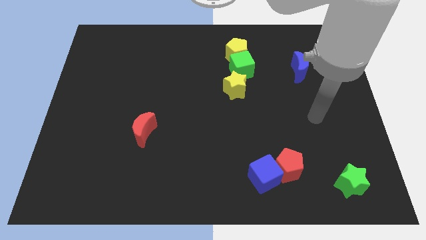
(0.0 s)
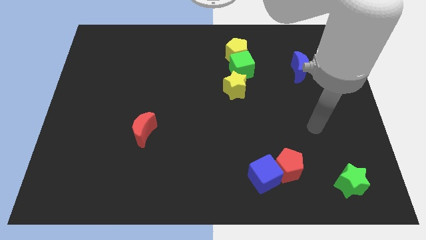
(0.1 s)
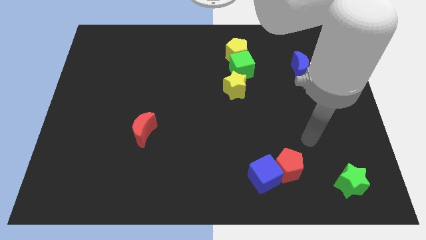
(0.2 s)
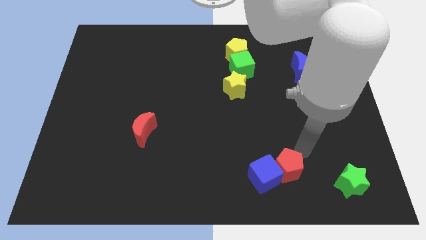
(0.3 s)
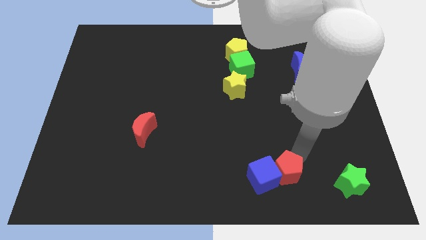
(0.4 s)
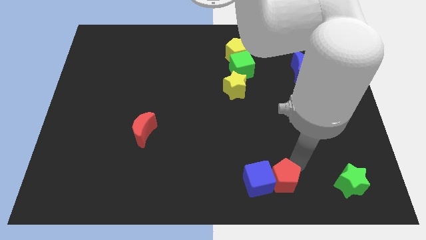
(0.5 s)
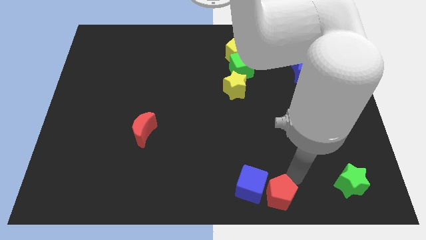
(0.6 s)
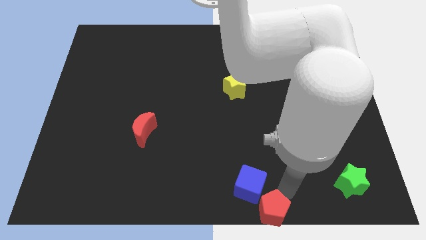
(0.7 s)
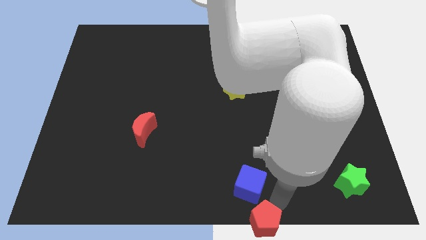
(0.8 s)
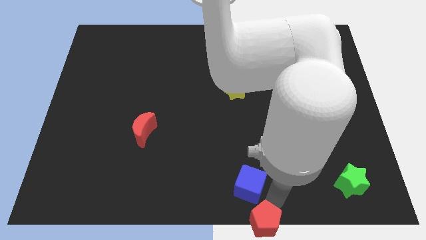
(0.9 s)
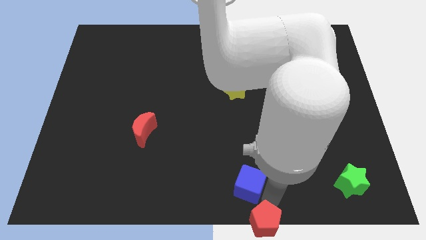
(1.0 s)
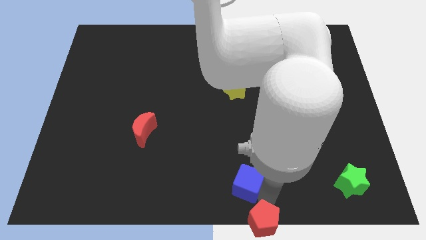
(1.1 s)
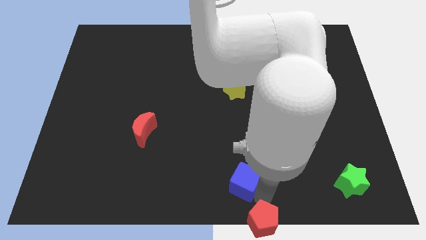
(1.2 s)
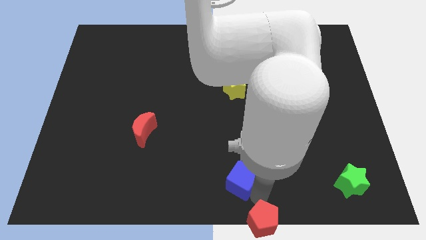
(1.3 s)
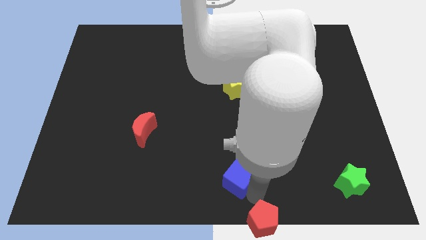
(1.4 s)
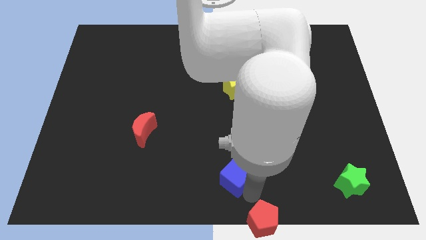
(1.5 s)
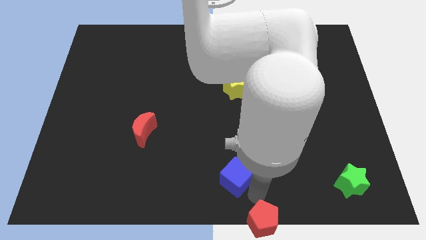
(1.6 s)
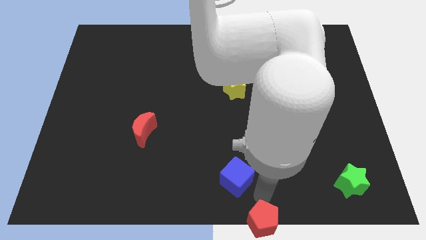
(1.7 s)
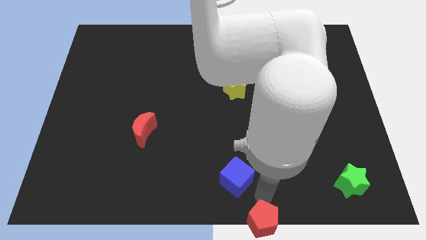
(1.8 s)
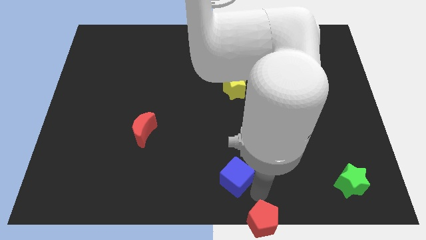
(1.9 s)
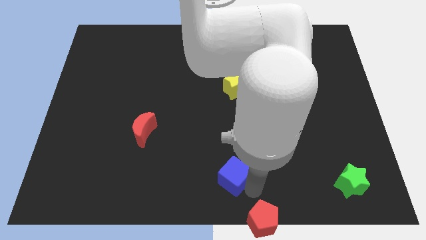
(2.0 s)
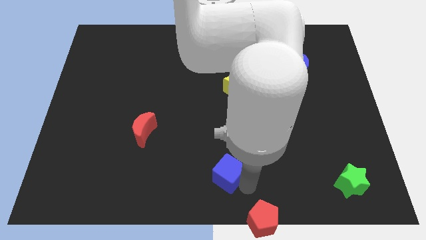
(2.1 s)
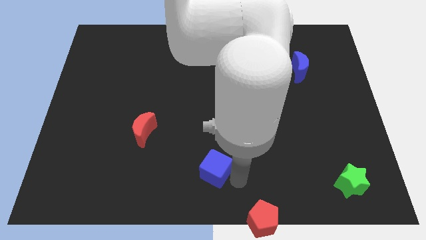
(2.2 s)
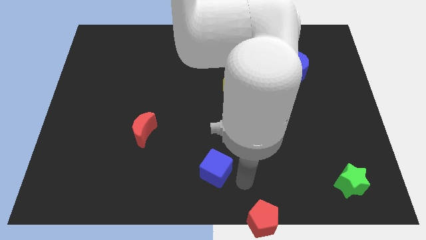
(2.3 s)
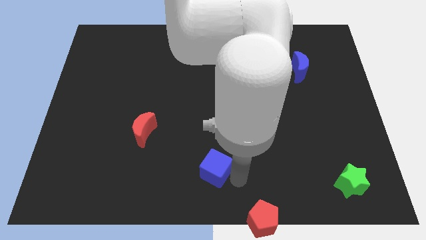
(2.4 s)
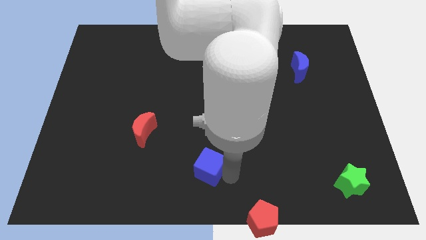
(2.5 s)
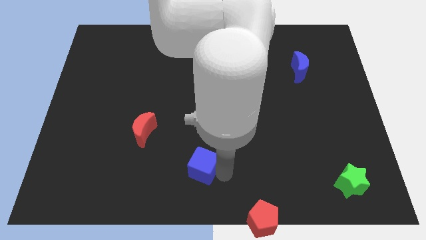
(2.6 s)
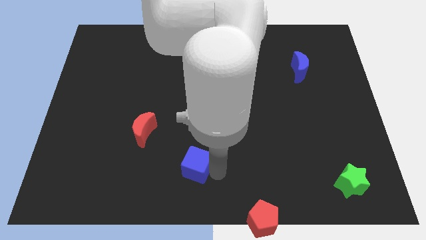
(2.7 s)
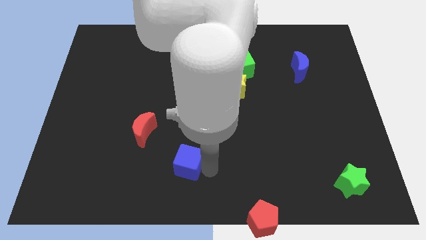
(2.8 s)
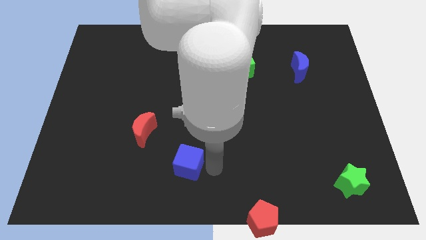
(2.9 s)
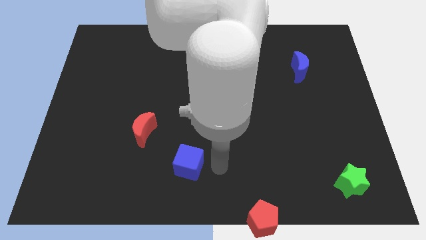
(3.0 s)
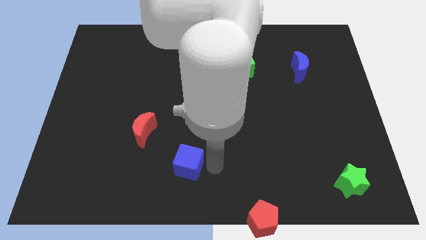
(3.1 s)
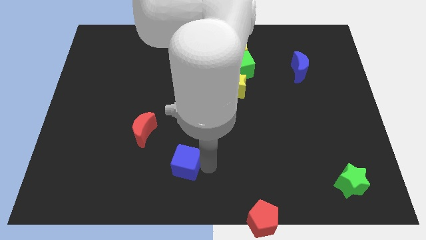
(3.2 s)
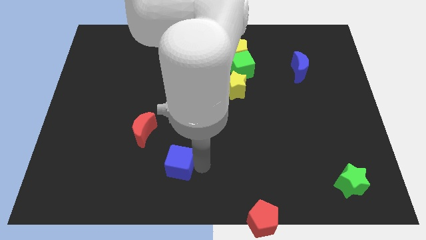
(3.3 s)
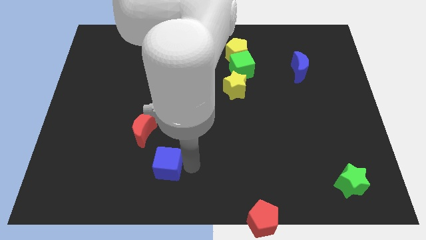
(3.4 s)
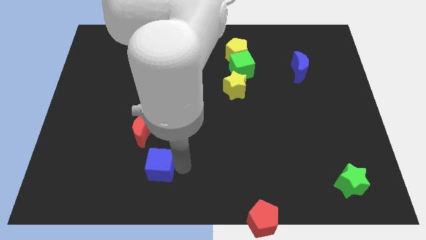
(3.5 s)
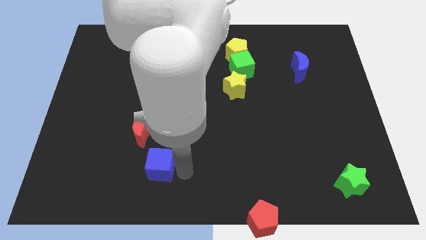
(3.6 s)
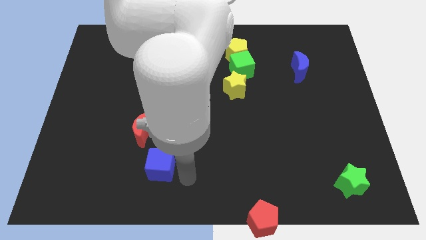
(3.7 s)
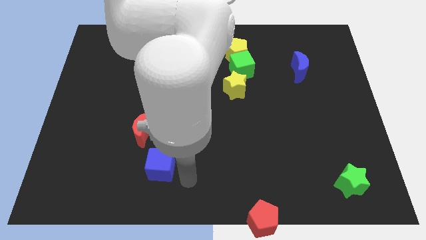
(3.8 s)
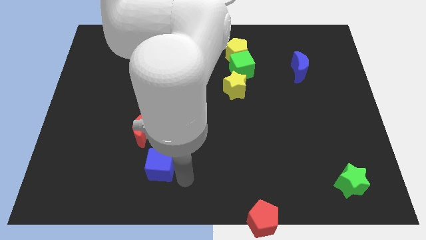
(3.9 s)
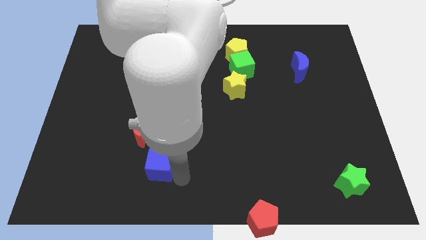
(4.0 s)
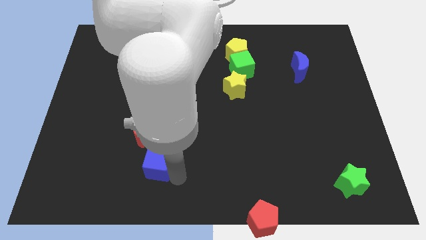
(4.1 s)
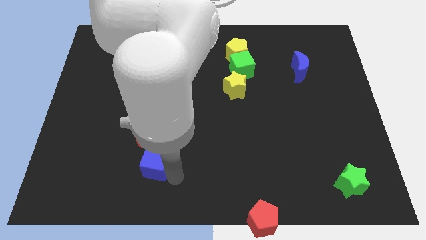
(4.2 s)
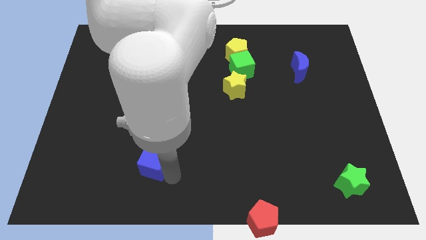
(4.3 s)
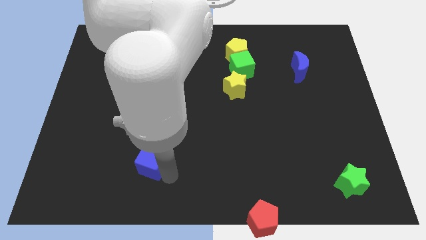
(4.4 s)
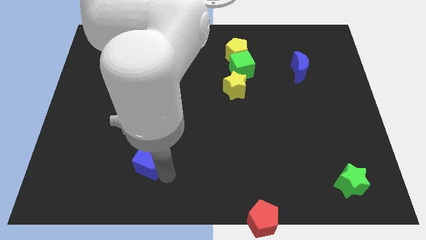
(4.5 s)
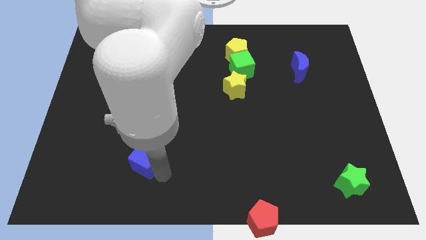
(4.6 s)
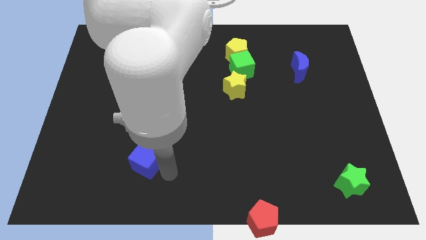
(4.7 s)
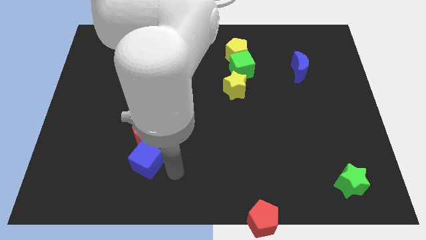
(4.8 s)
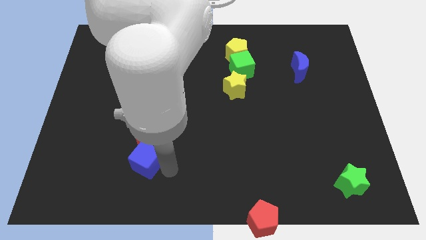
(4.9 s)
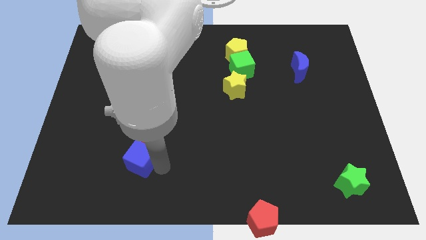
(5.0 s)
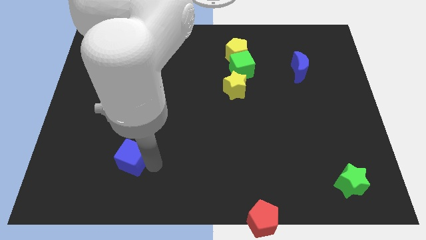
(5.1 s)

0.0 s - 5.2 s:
put the blue cube to the bottom left of the red moon

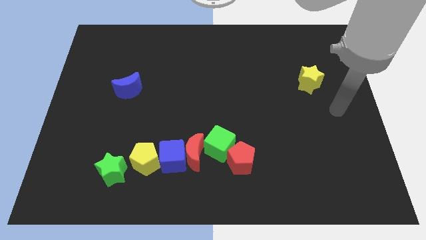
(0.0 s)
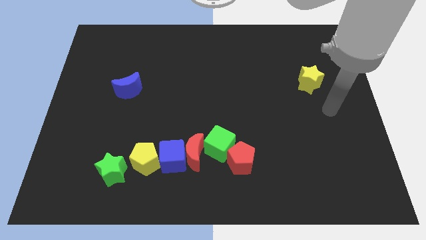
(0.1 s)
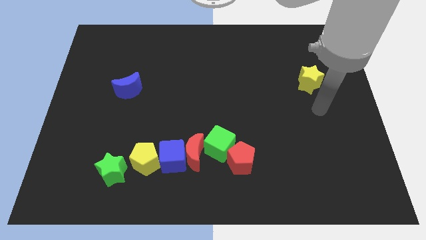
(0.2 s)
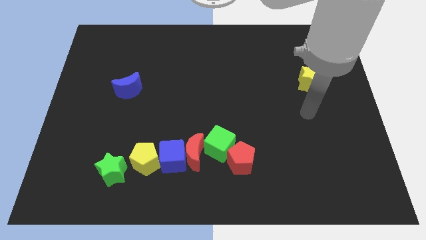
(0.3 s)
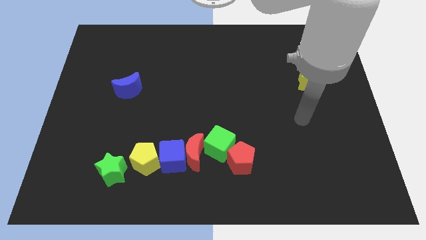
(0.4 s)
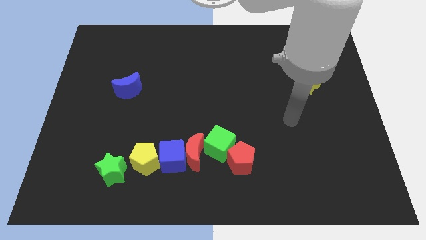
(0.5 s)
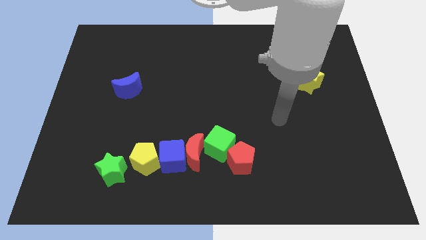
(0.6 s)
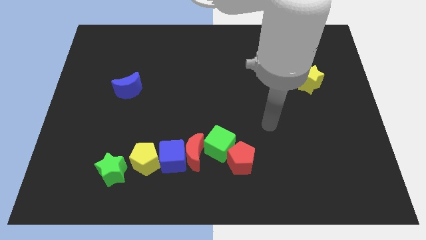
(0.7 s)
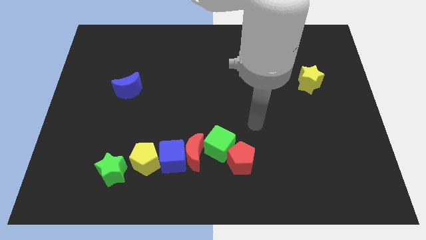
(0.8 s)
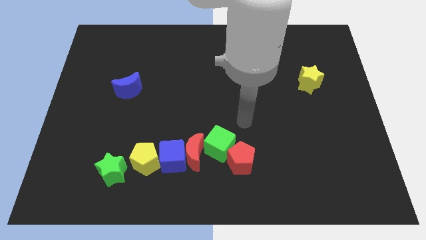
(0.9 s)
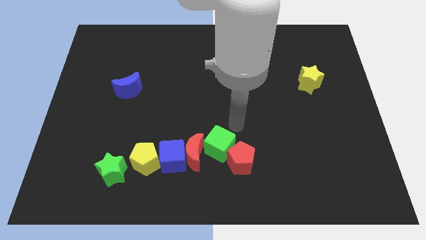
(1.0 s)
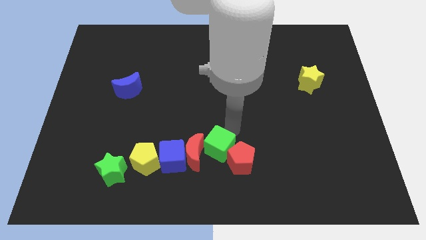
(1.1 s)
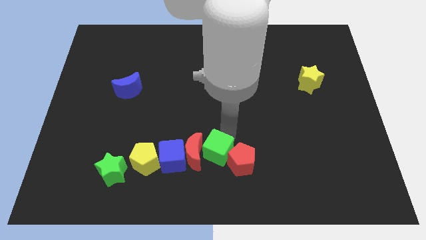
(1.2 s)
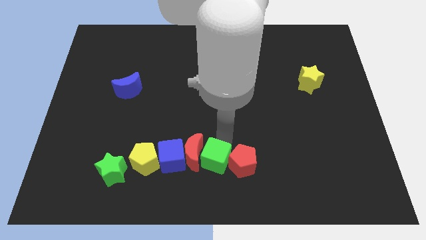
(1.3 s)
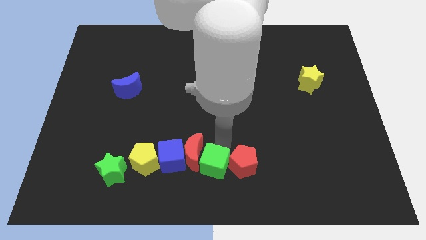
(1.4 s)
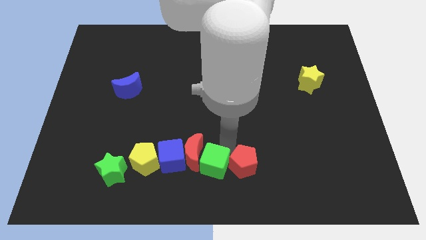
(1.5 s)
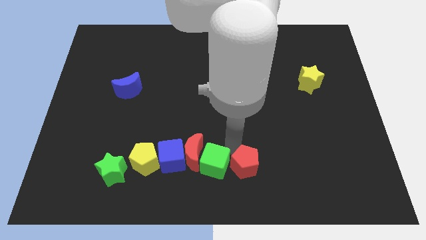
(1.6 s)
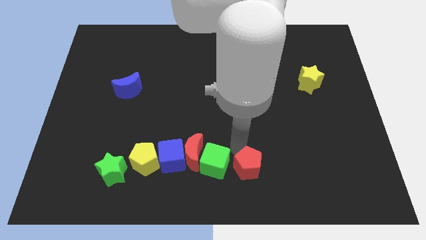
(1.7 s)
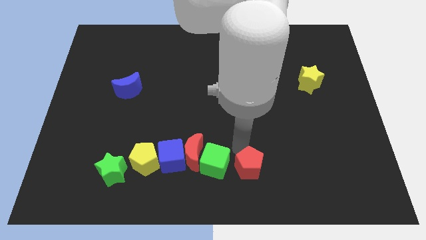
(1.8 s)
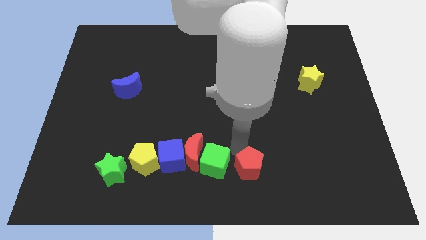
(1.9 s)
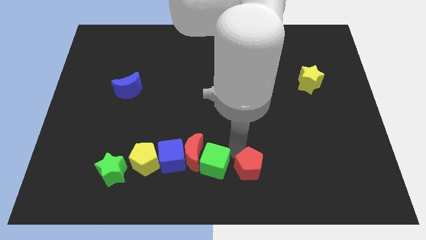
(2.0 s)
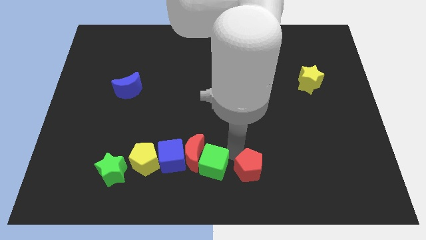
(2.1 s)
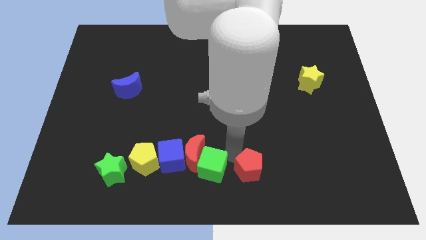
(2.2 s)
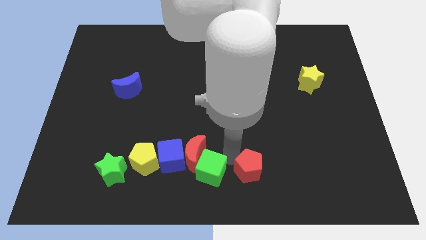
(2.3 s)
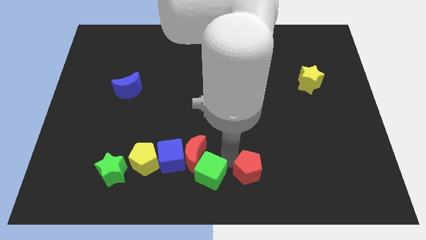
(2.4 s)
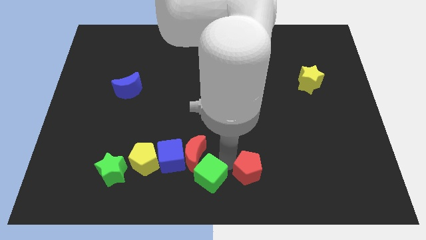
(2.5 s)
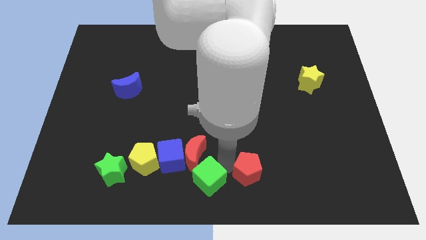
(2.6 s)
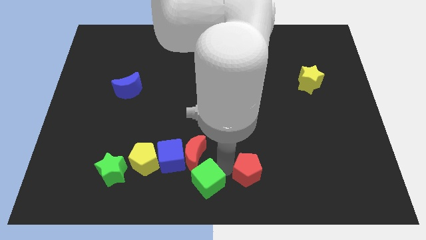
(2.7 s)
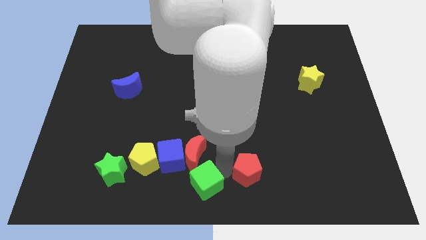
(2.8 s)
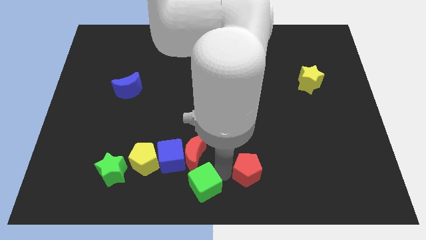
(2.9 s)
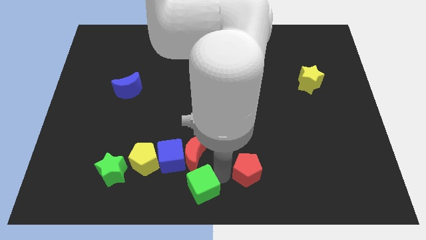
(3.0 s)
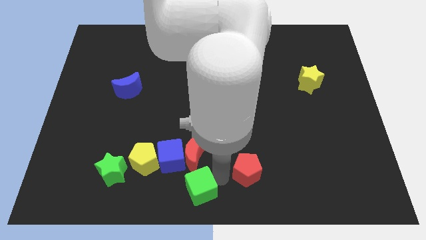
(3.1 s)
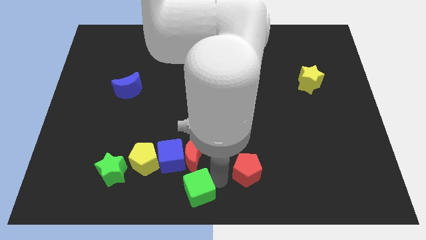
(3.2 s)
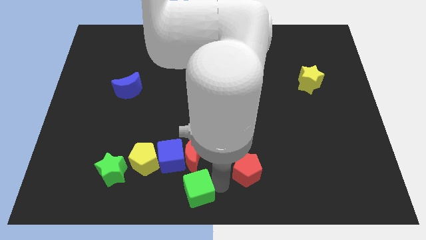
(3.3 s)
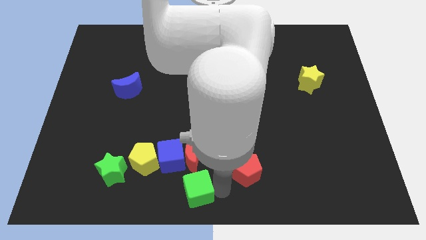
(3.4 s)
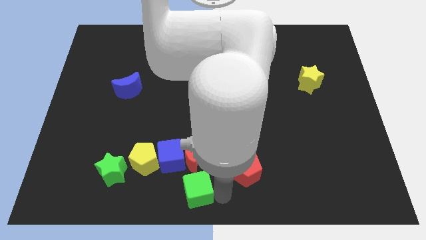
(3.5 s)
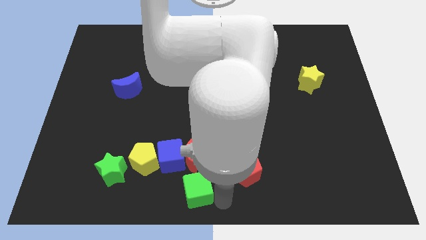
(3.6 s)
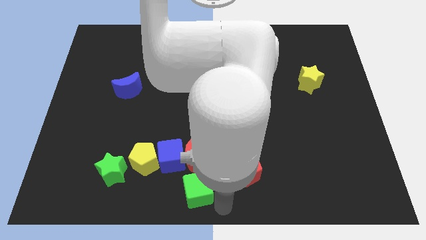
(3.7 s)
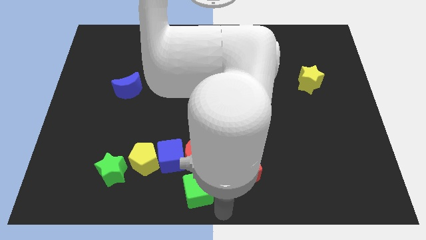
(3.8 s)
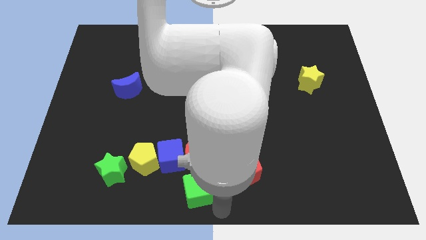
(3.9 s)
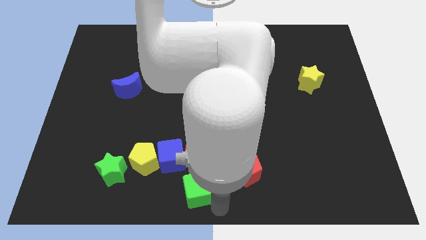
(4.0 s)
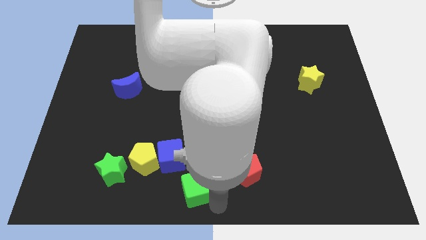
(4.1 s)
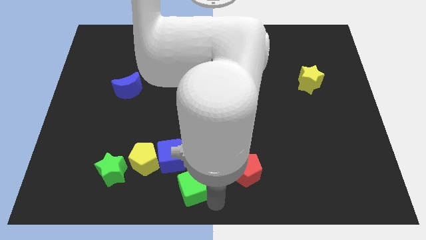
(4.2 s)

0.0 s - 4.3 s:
slide the green cube to the bottom right side of the yellow pentagon
